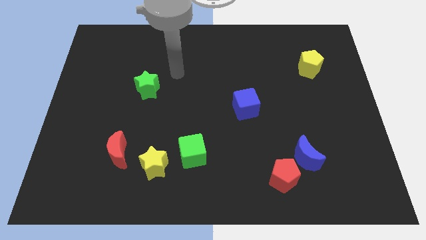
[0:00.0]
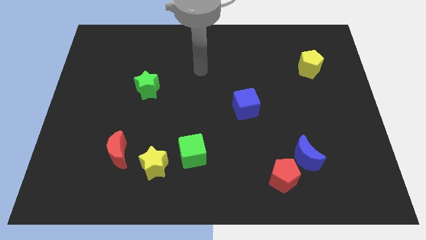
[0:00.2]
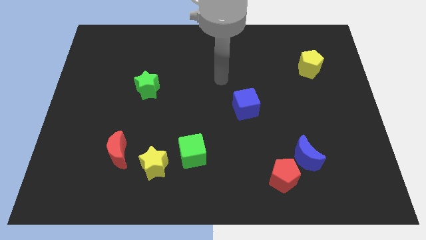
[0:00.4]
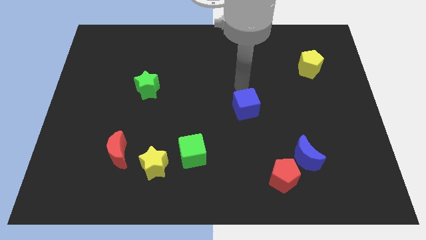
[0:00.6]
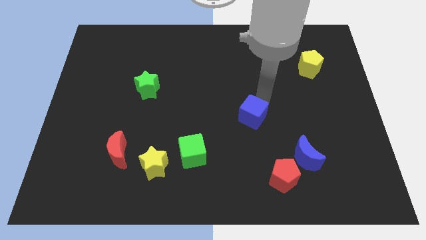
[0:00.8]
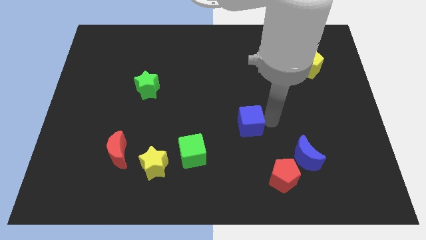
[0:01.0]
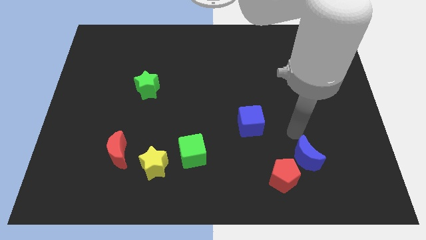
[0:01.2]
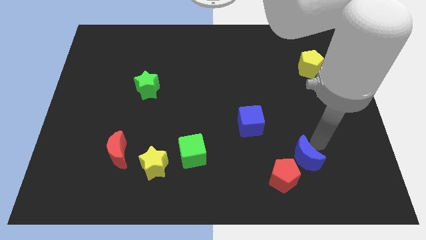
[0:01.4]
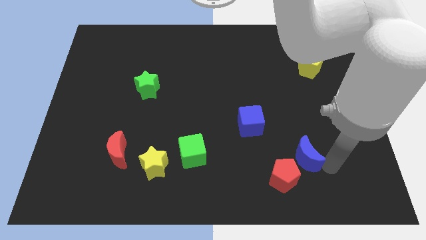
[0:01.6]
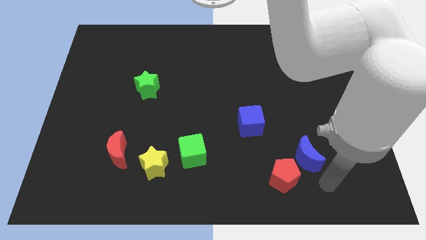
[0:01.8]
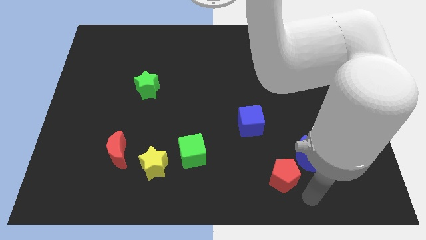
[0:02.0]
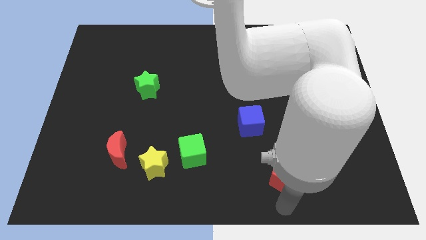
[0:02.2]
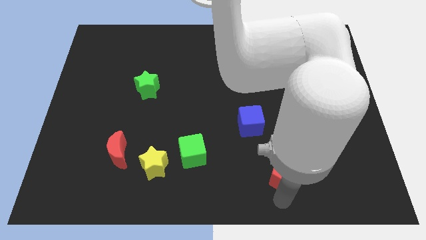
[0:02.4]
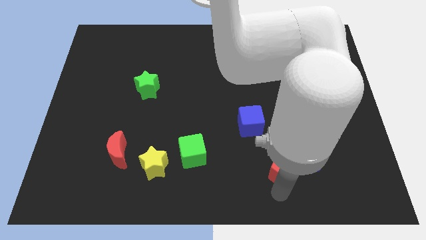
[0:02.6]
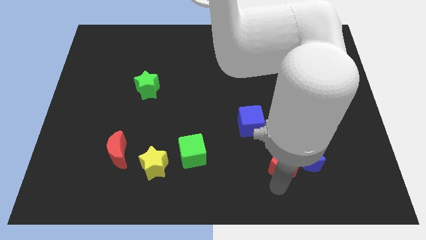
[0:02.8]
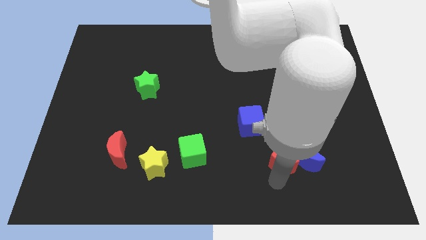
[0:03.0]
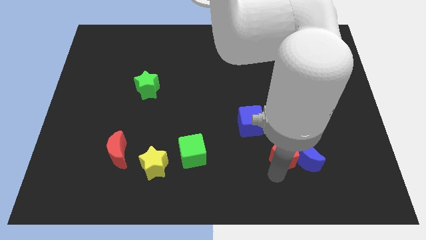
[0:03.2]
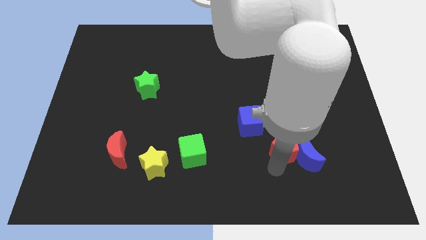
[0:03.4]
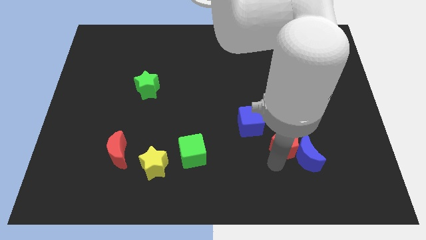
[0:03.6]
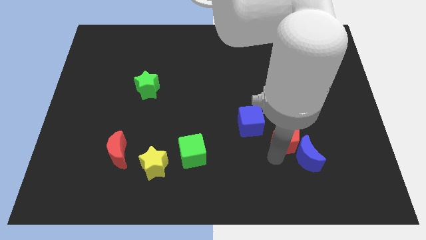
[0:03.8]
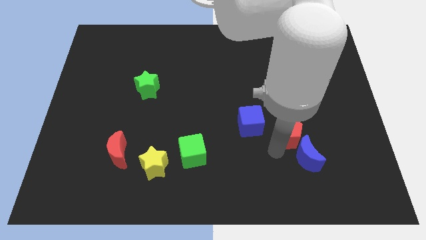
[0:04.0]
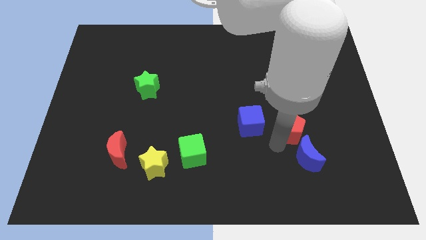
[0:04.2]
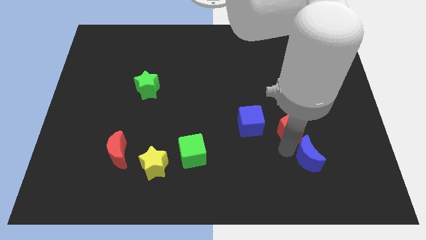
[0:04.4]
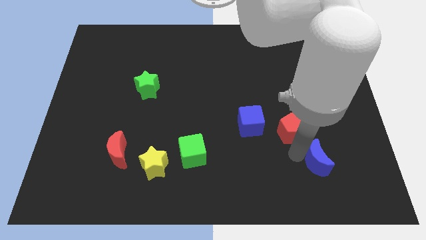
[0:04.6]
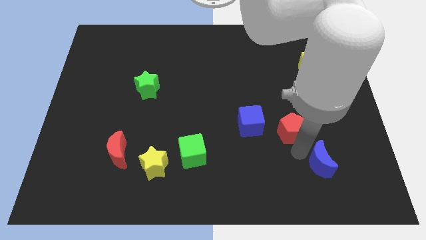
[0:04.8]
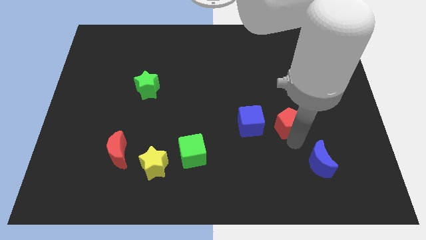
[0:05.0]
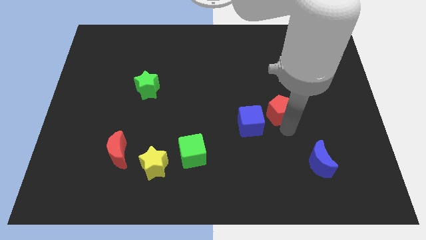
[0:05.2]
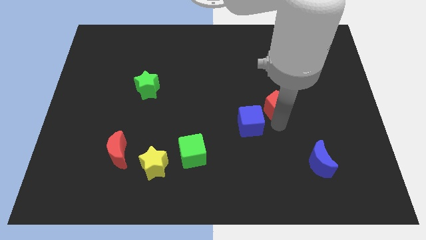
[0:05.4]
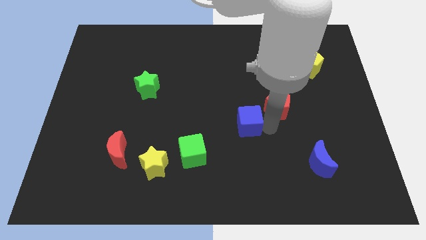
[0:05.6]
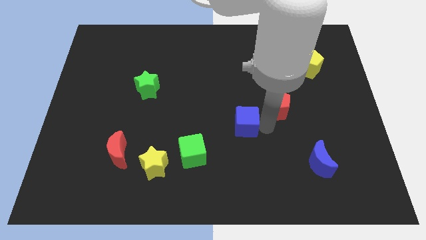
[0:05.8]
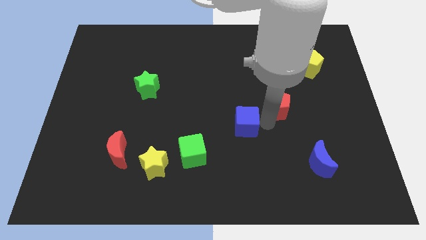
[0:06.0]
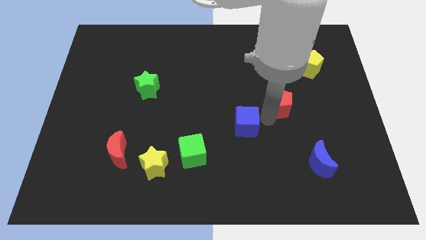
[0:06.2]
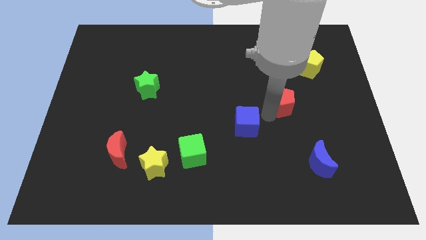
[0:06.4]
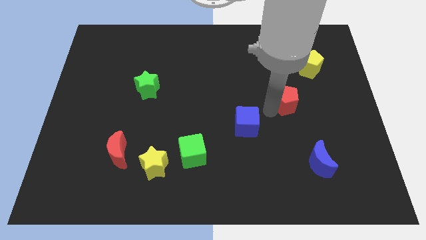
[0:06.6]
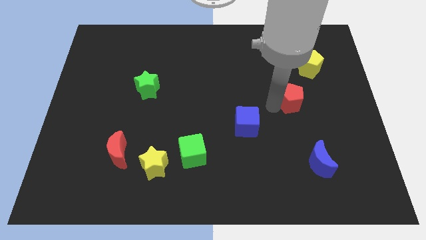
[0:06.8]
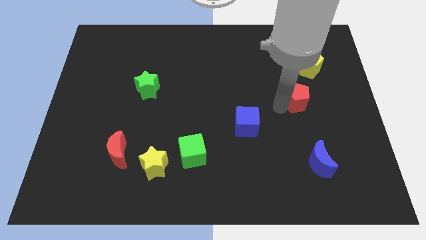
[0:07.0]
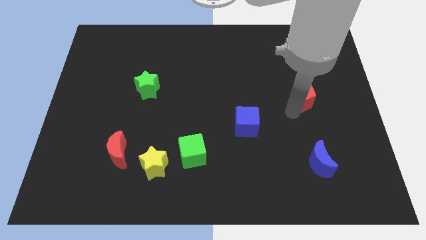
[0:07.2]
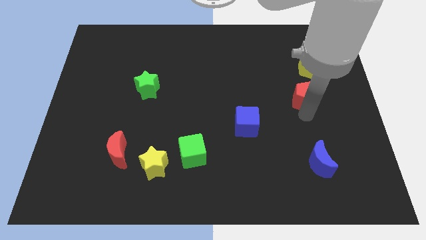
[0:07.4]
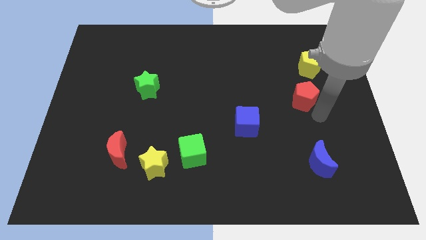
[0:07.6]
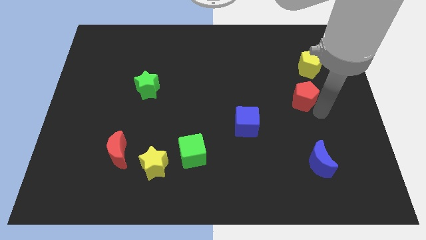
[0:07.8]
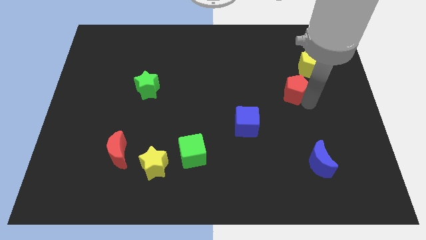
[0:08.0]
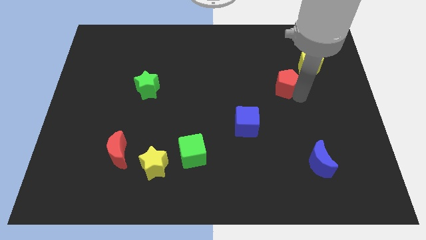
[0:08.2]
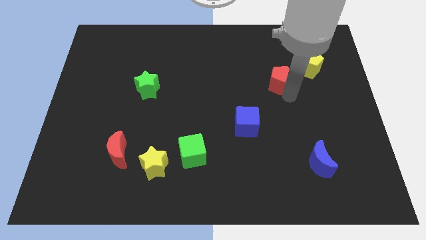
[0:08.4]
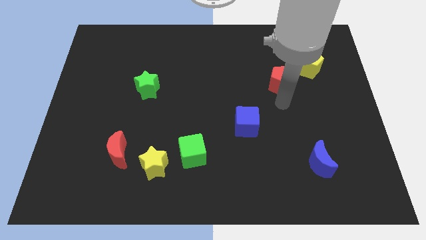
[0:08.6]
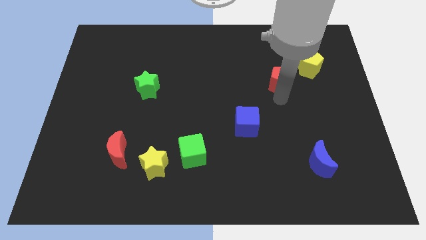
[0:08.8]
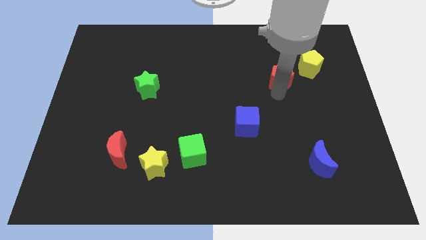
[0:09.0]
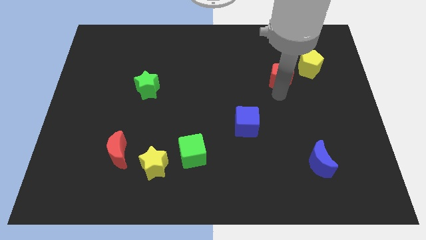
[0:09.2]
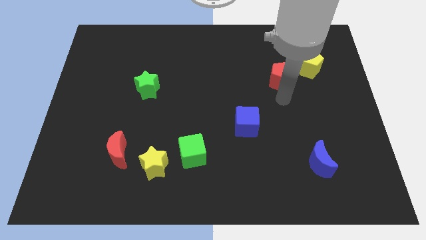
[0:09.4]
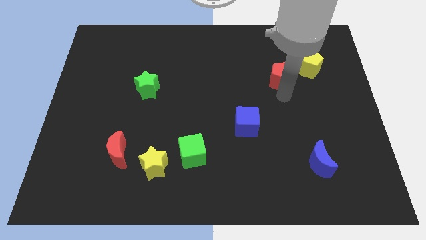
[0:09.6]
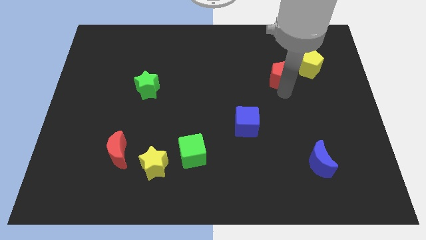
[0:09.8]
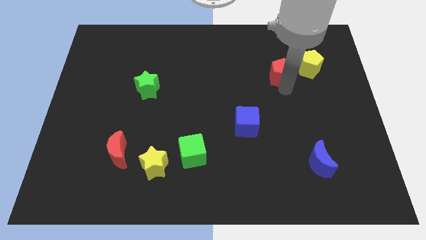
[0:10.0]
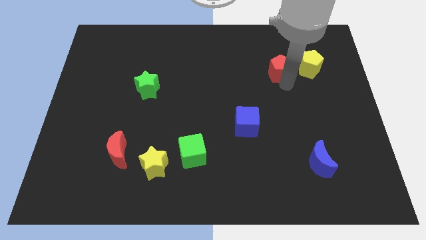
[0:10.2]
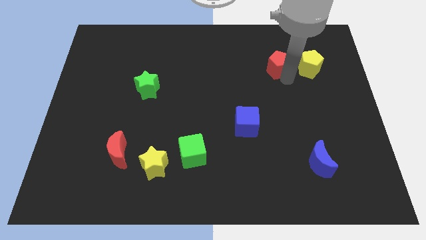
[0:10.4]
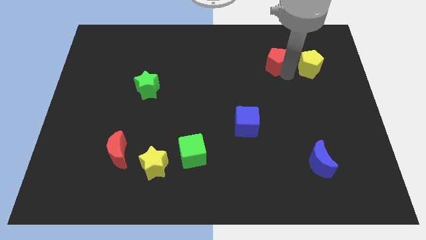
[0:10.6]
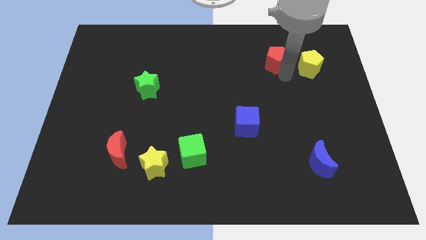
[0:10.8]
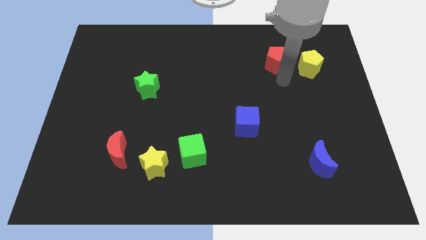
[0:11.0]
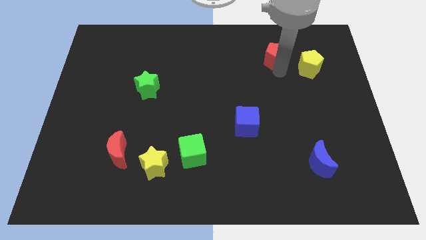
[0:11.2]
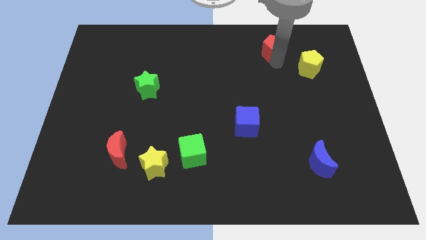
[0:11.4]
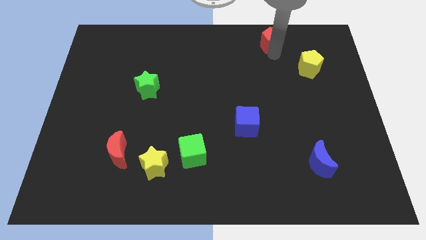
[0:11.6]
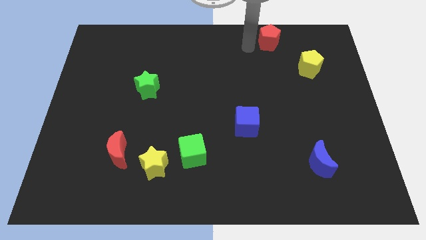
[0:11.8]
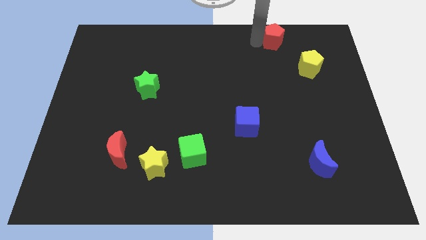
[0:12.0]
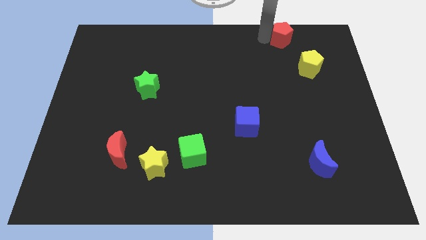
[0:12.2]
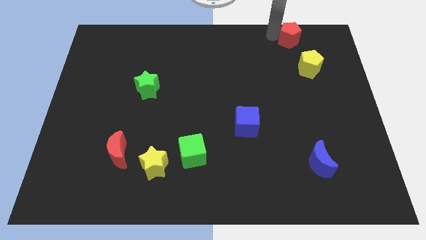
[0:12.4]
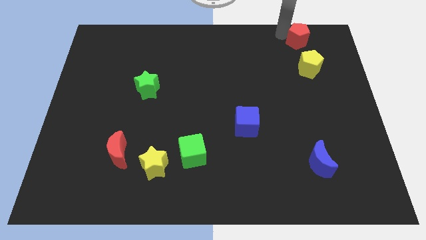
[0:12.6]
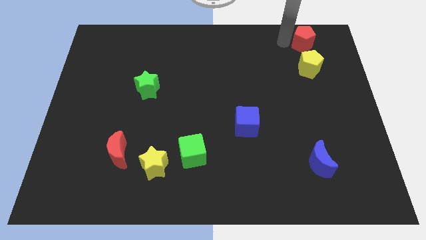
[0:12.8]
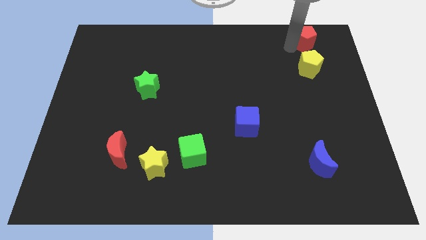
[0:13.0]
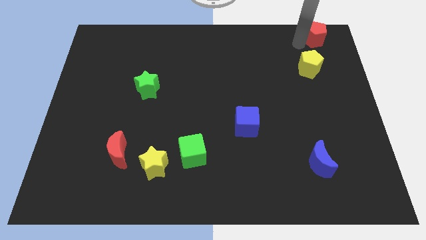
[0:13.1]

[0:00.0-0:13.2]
put the red pentagon to the top right
